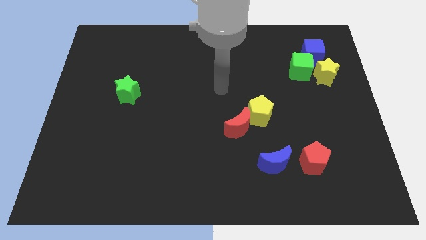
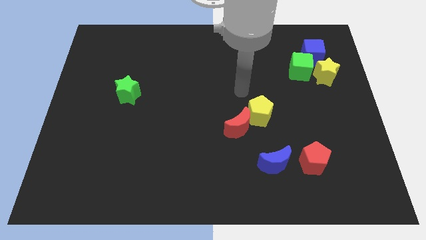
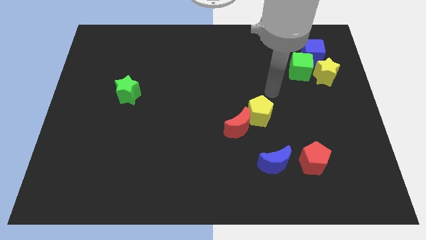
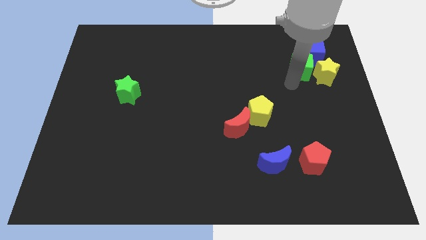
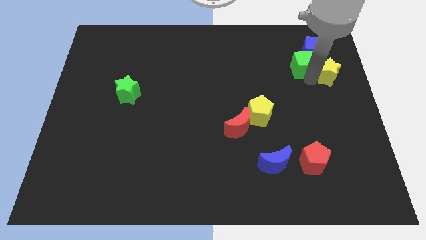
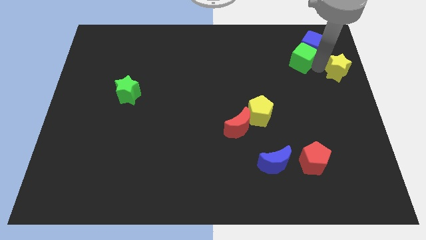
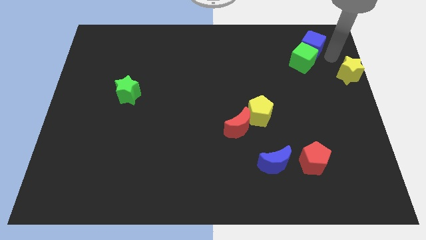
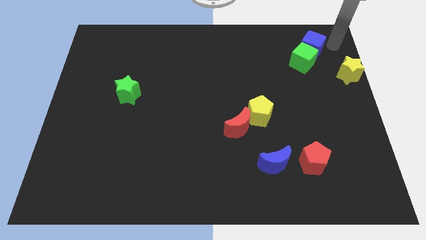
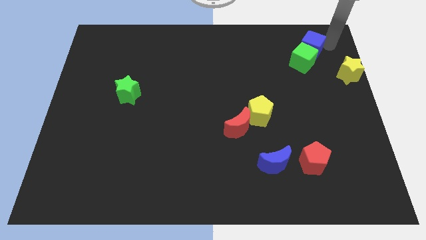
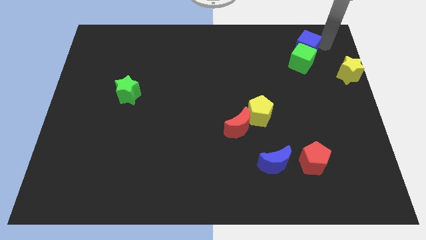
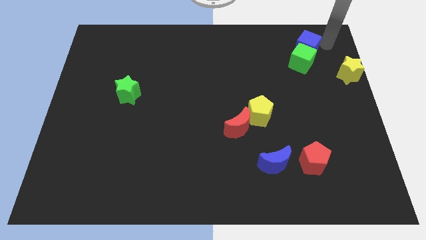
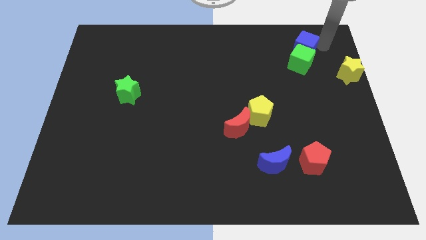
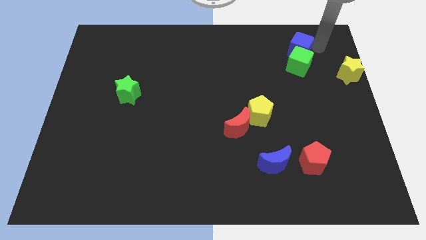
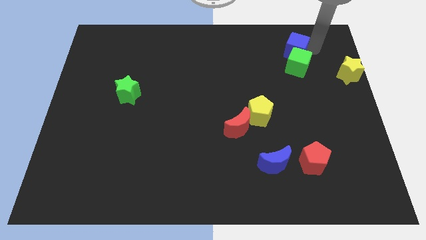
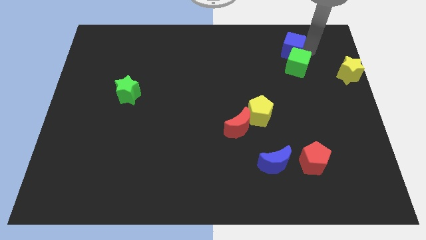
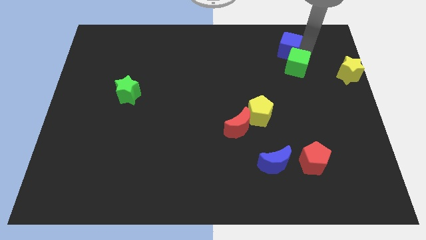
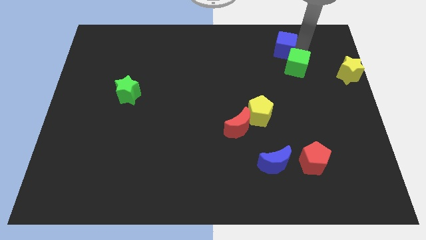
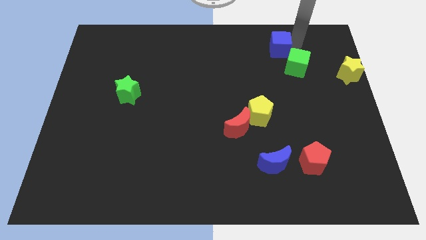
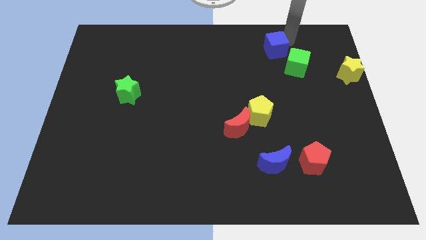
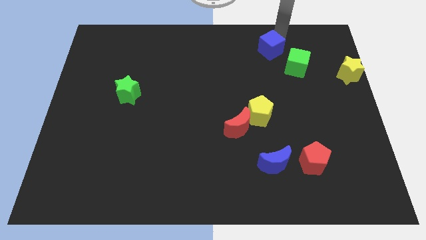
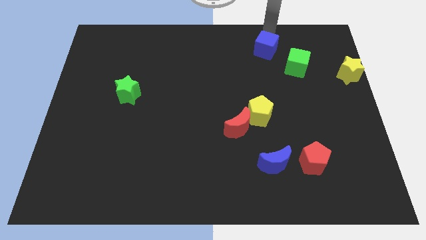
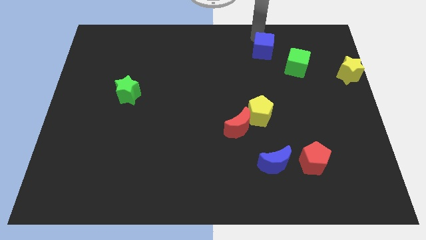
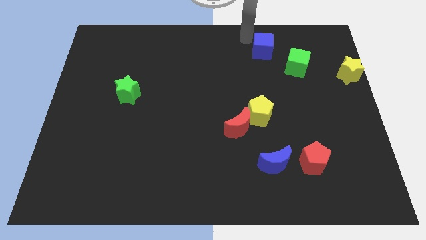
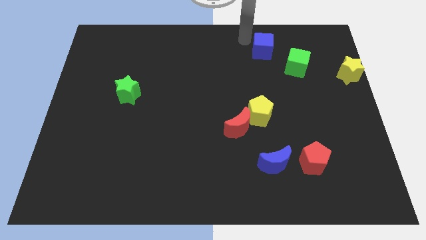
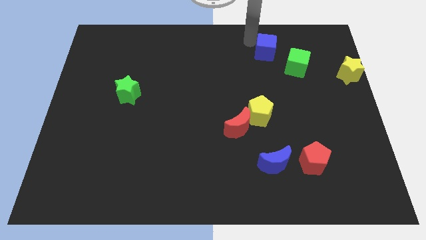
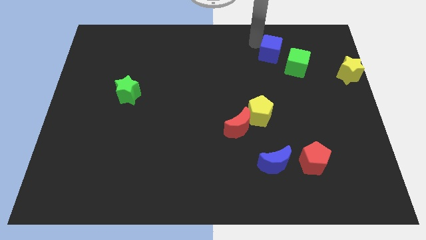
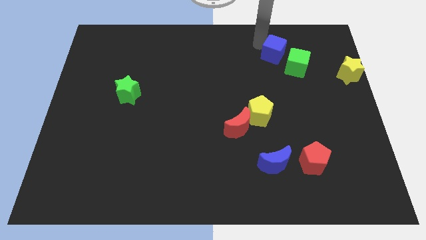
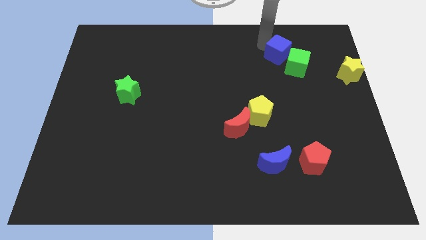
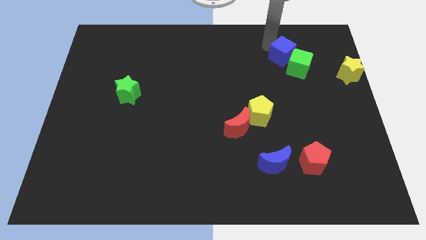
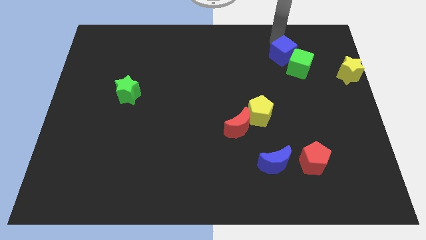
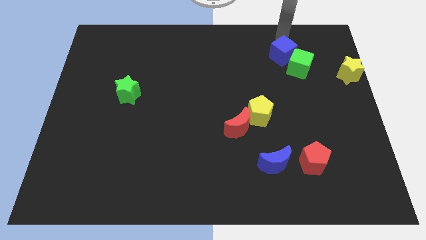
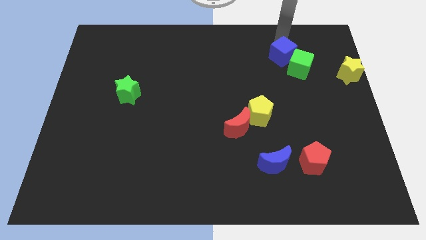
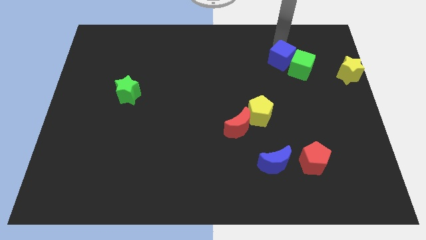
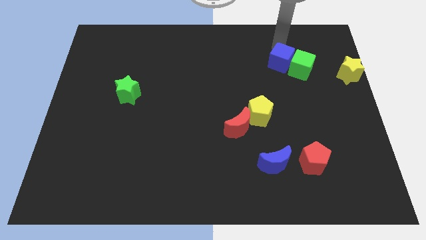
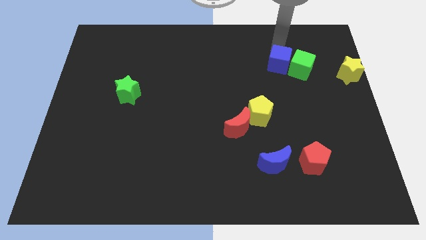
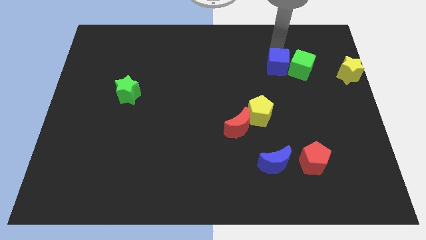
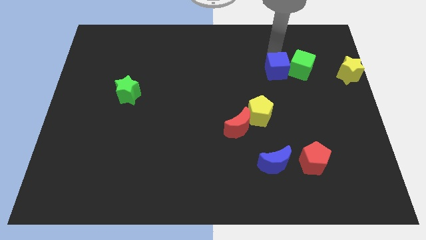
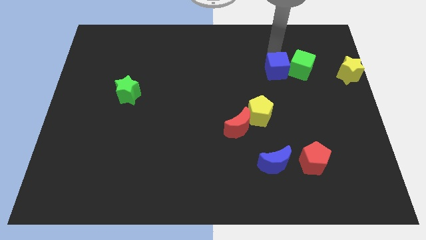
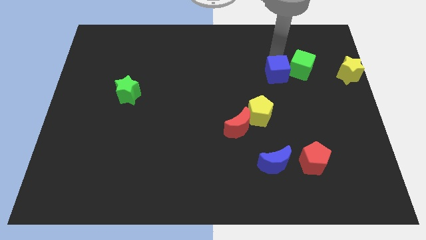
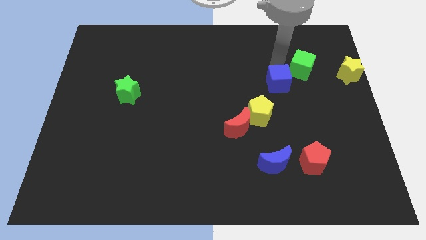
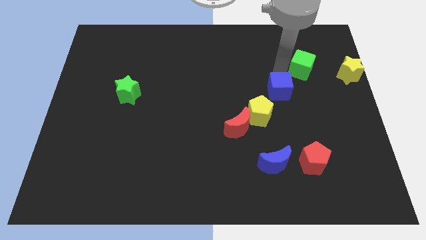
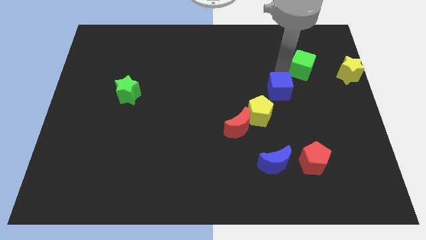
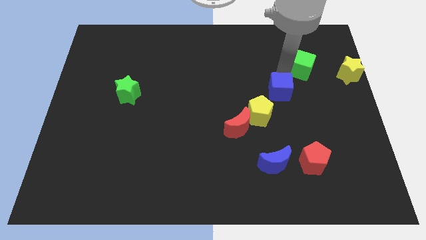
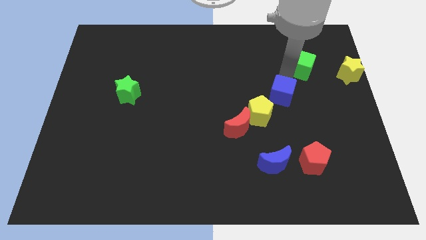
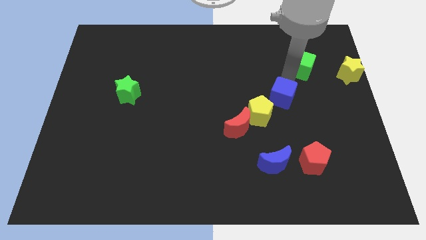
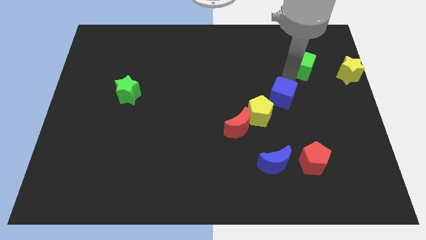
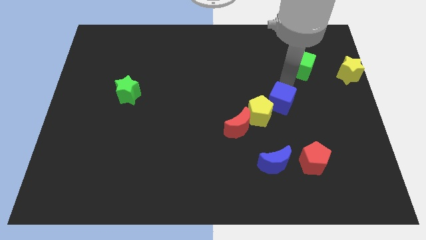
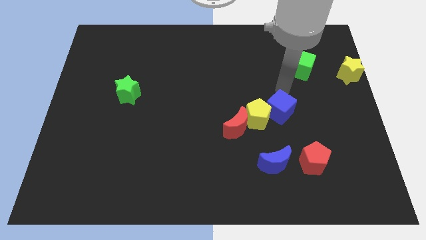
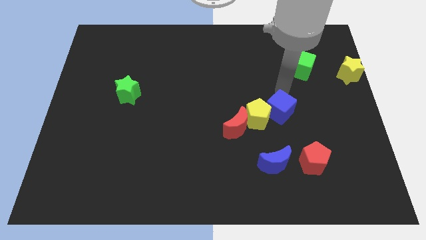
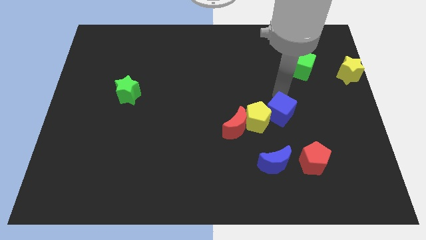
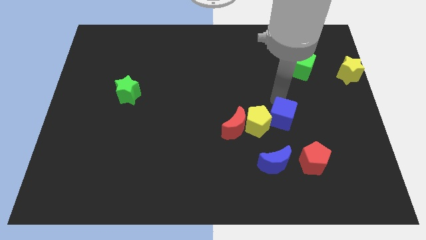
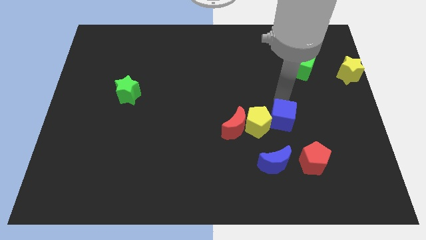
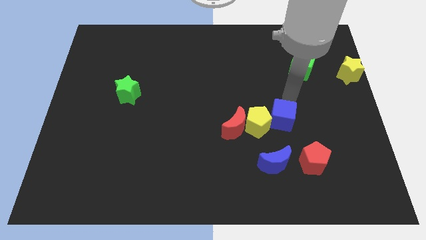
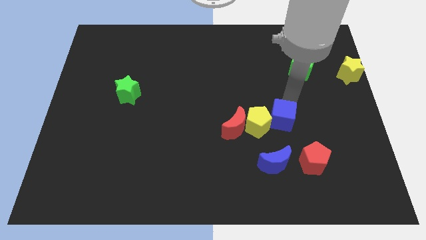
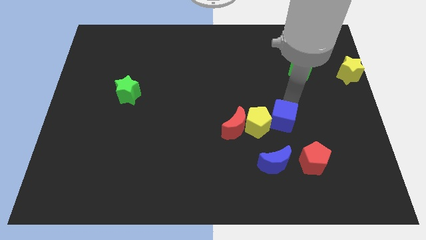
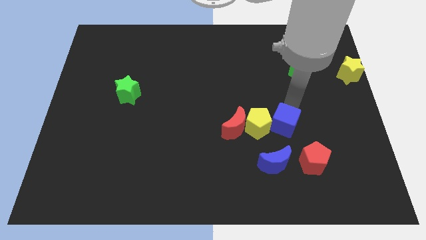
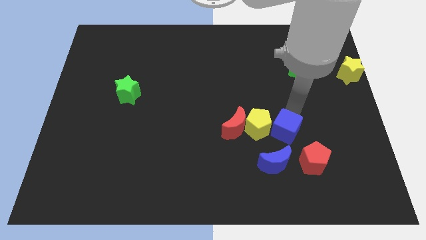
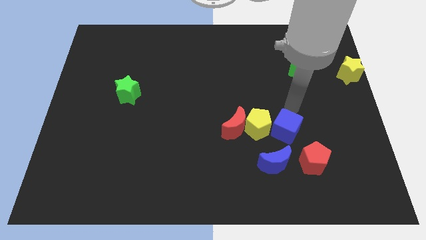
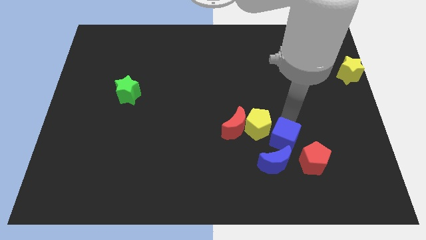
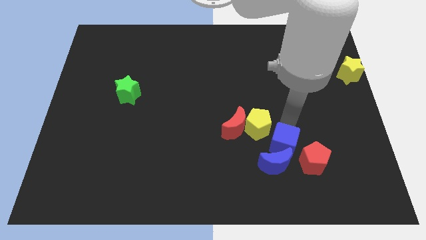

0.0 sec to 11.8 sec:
push the blue cube towards the blue moon
